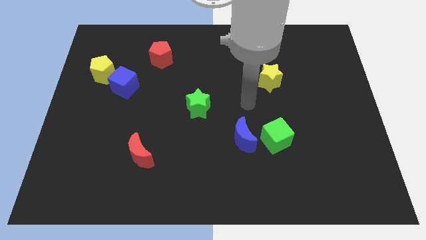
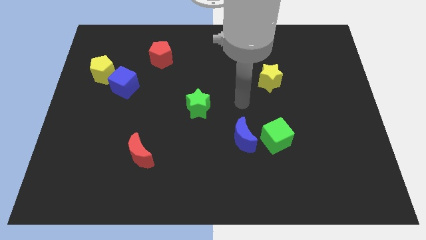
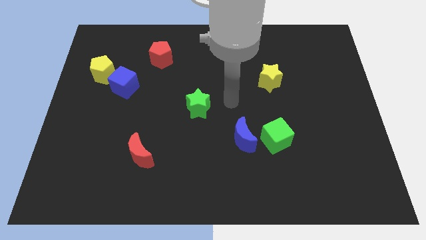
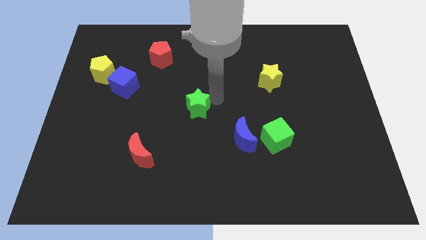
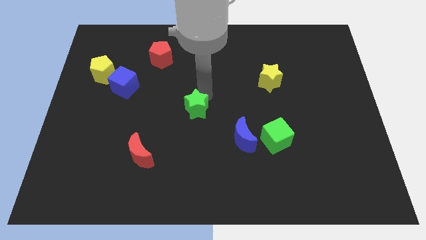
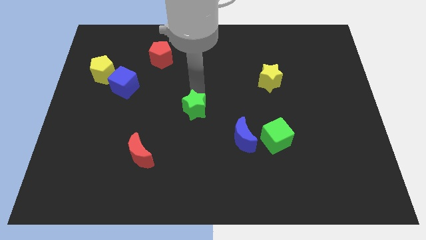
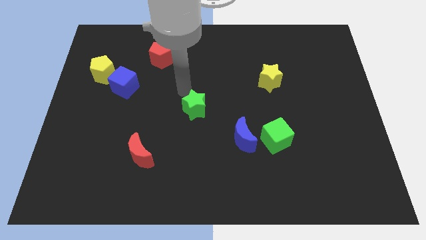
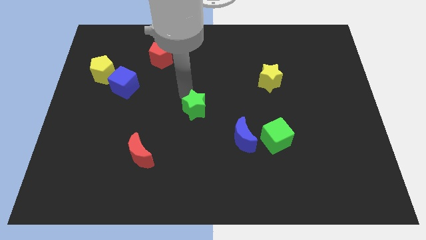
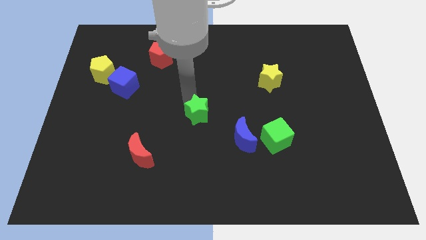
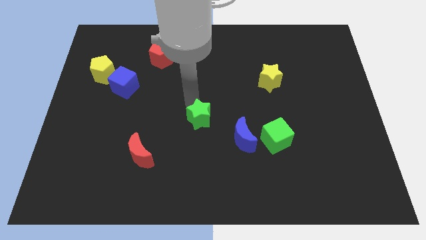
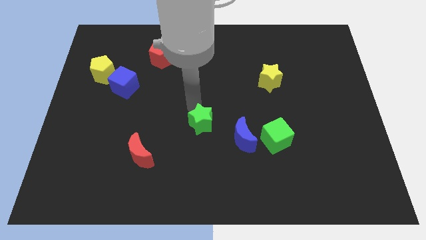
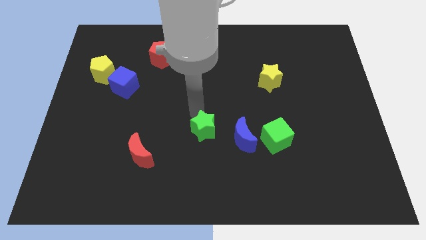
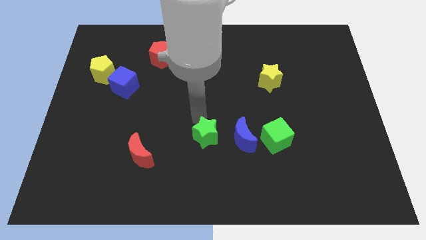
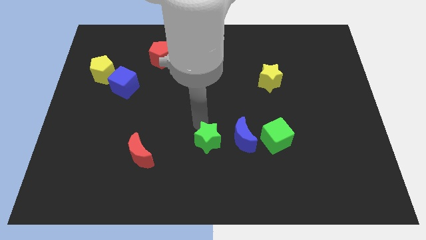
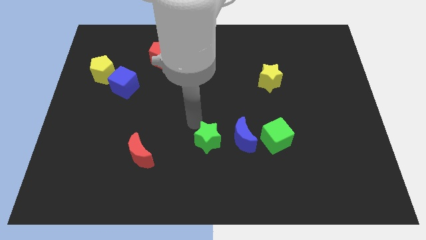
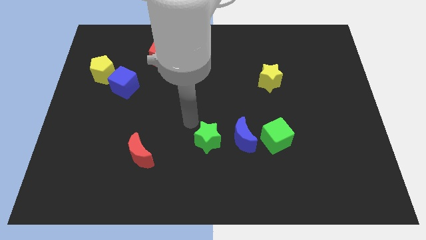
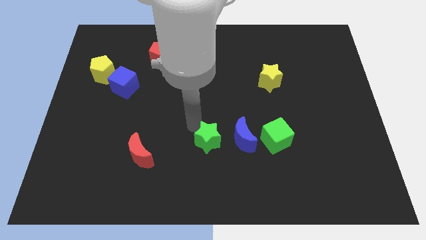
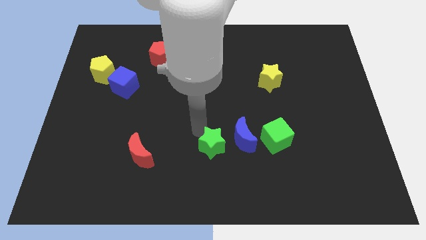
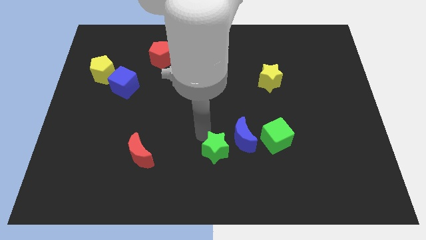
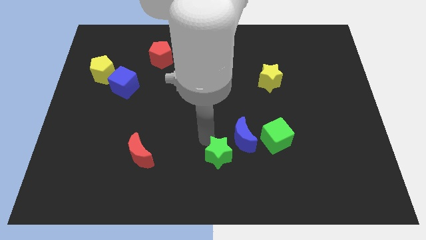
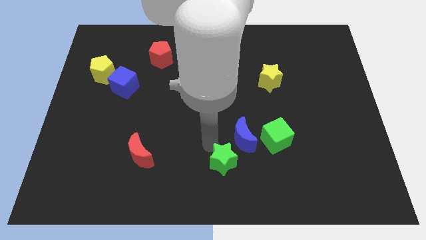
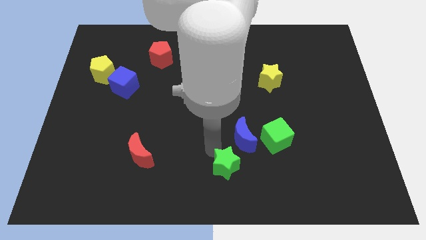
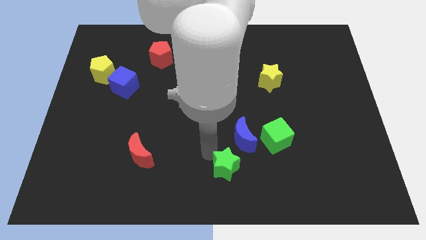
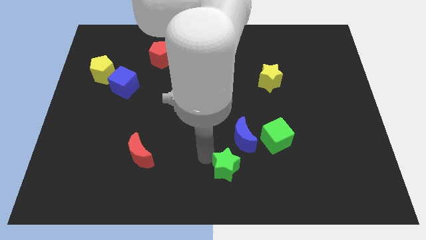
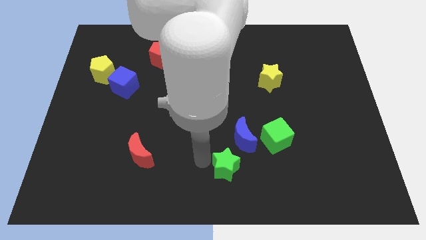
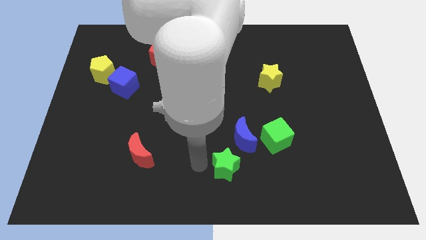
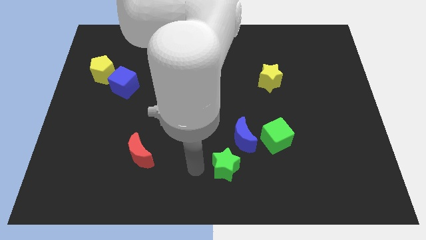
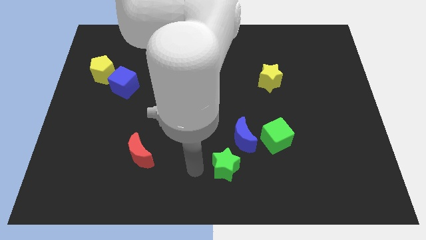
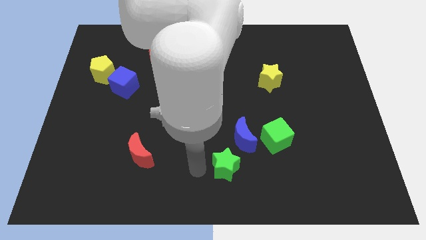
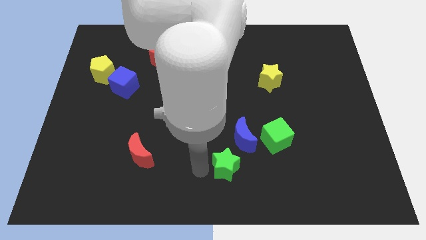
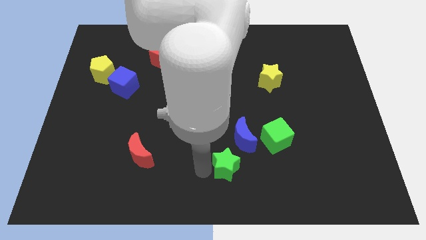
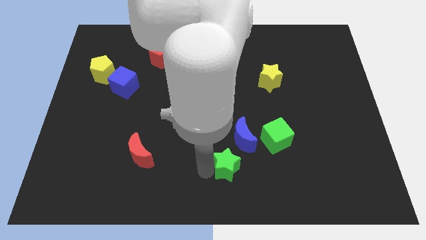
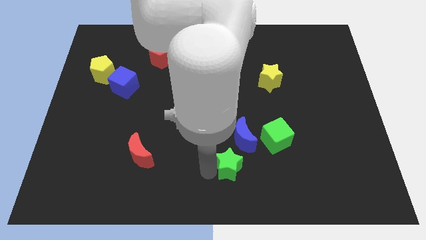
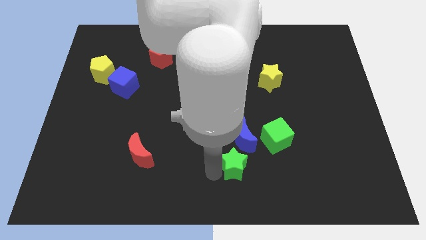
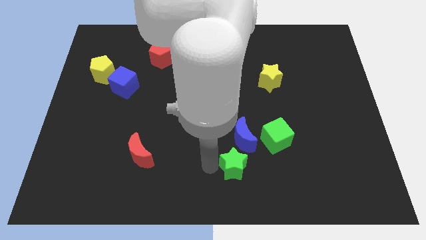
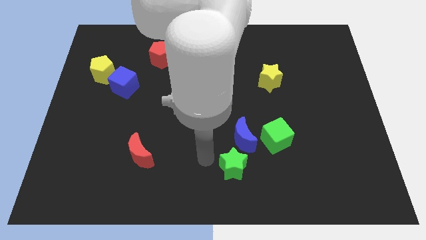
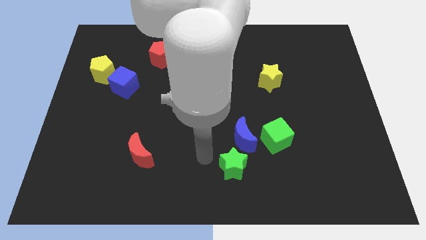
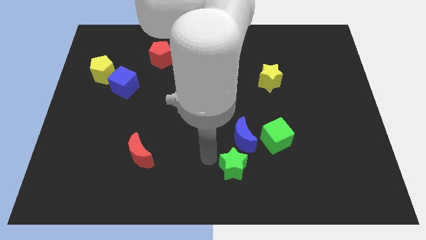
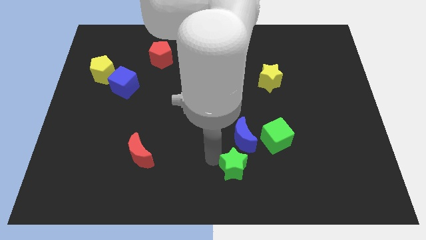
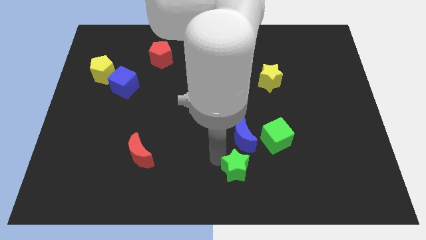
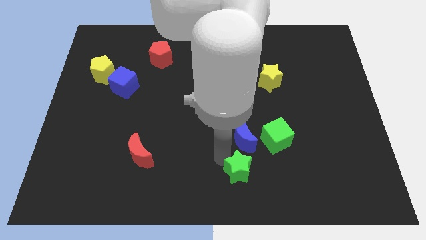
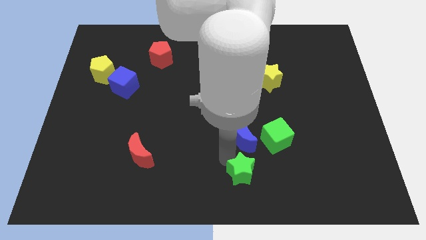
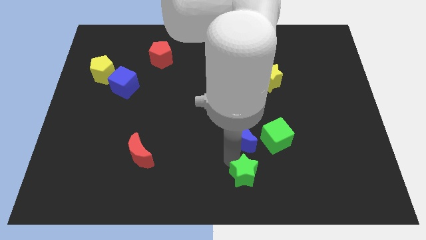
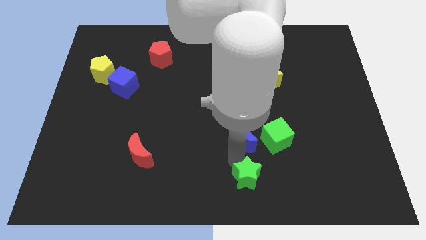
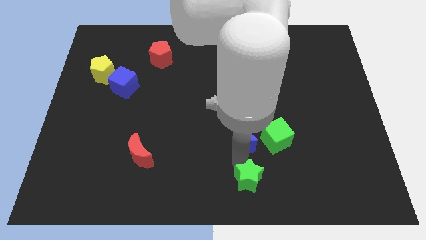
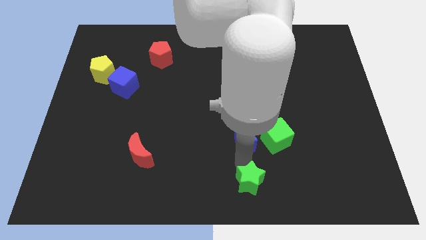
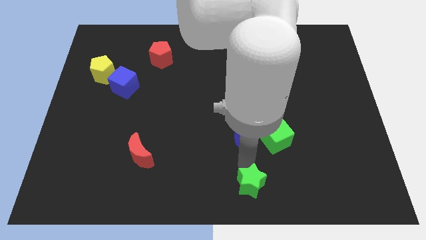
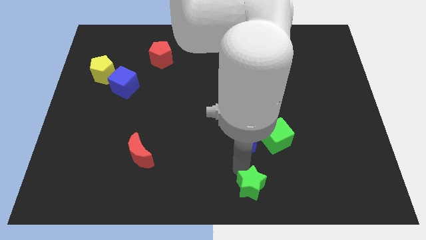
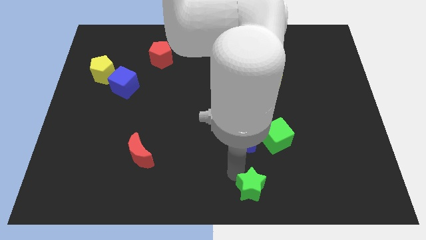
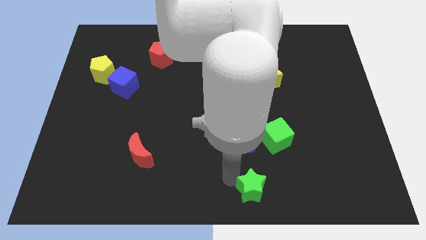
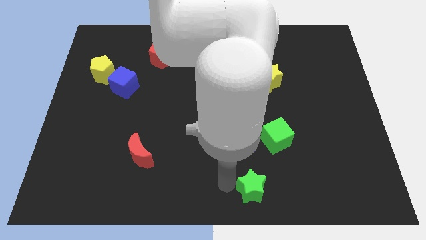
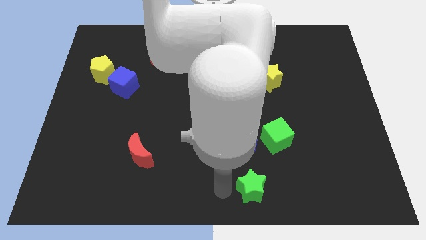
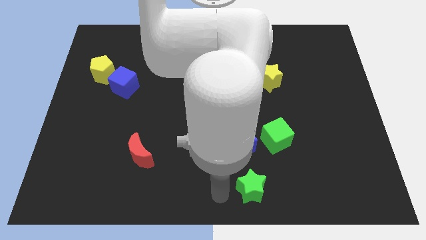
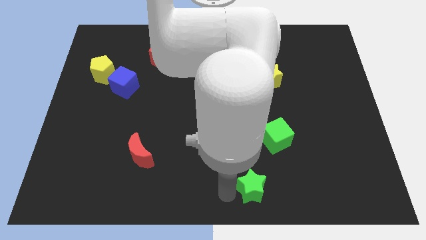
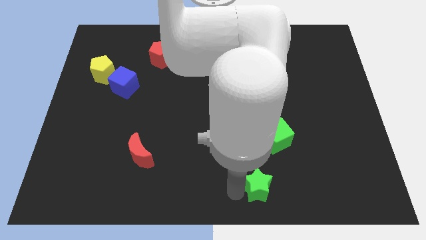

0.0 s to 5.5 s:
move the green star below the green cube

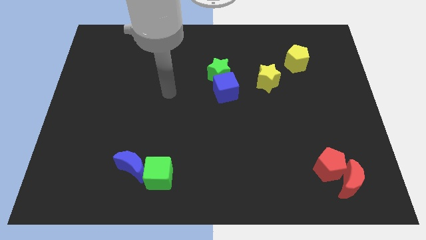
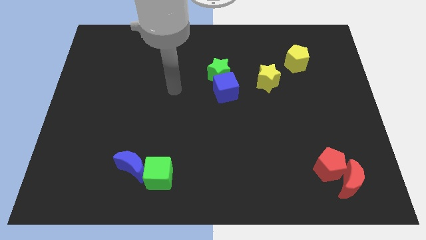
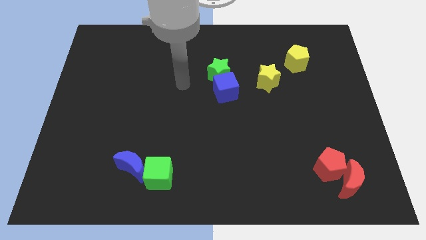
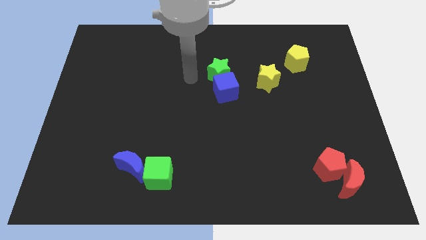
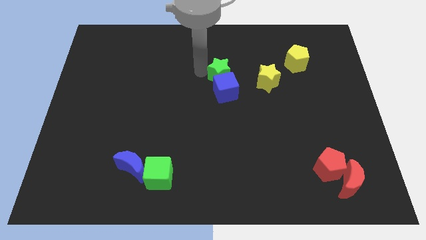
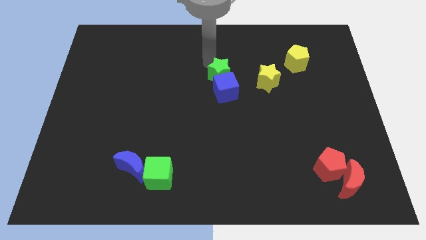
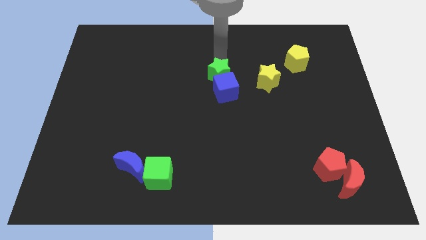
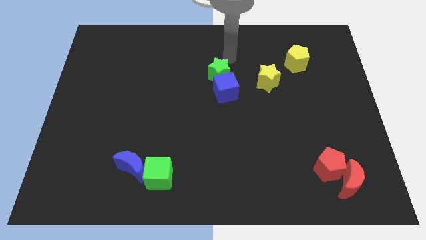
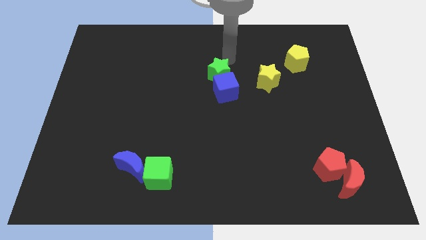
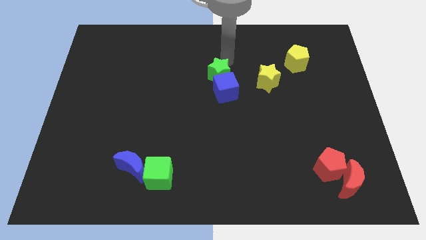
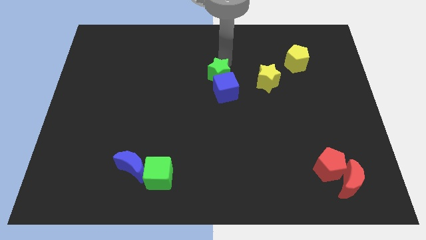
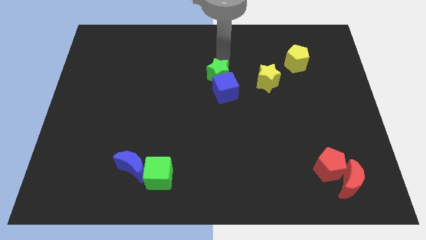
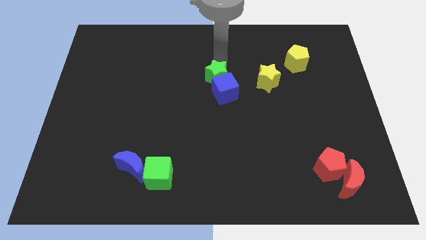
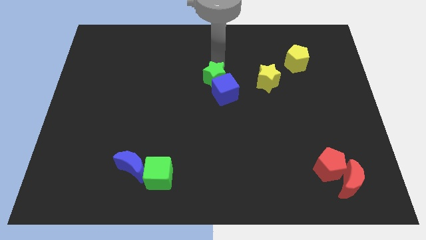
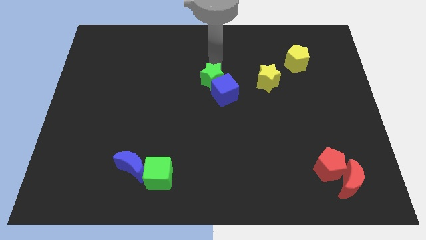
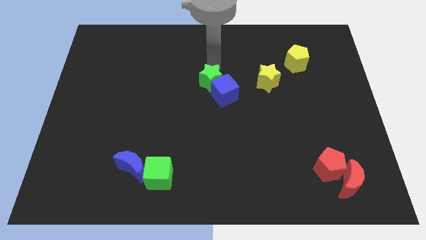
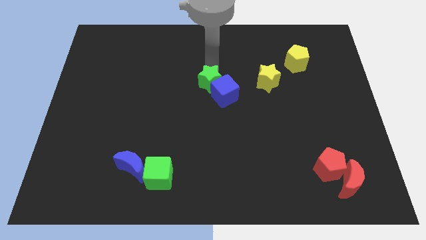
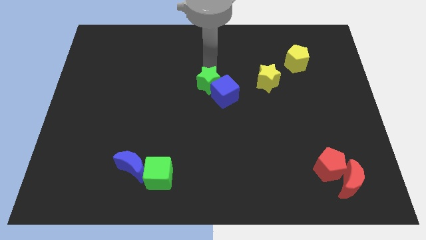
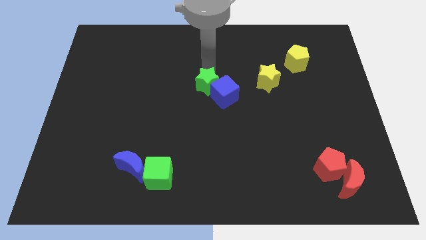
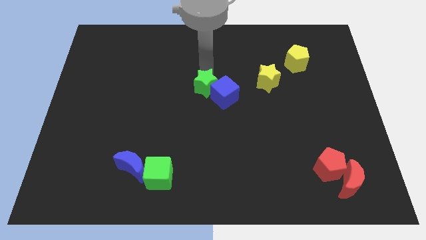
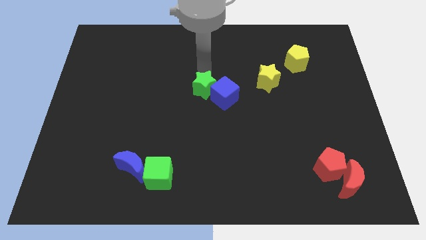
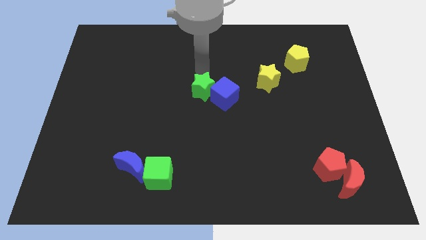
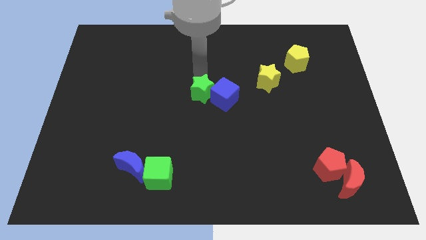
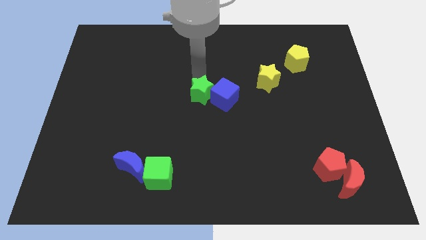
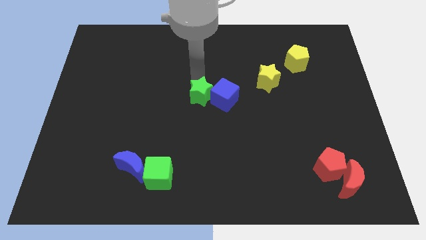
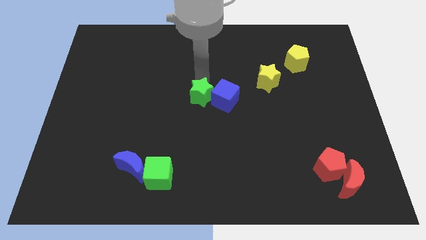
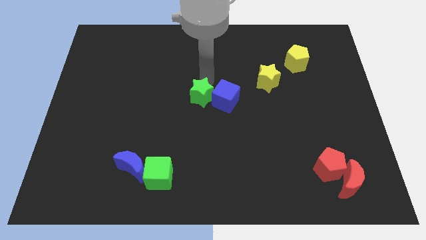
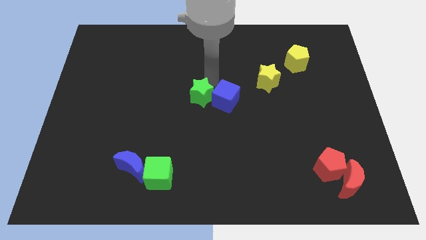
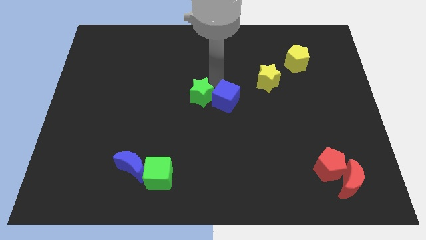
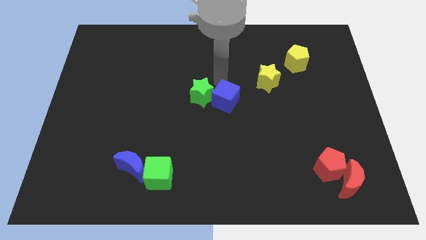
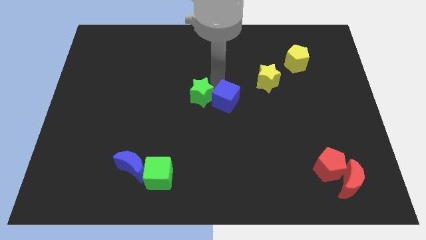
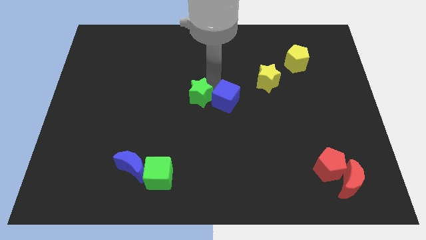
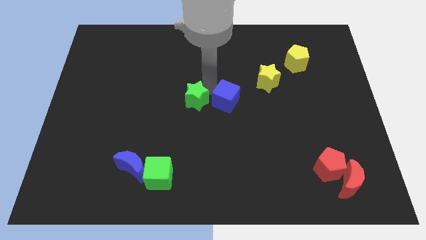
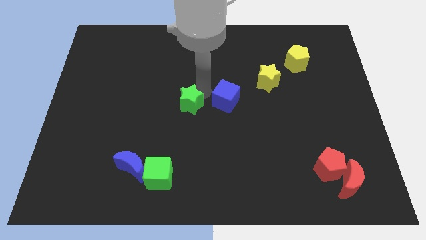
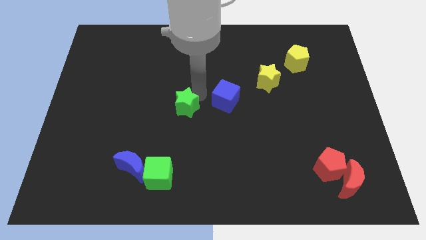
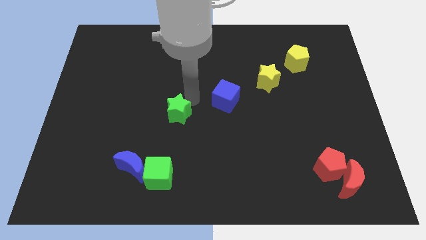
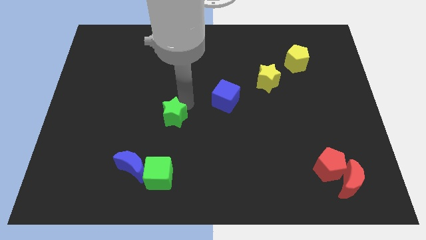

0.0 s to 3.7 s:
slide the green star above the green cube
